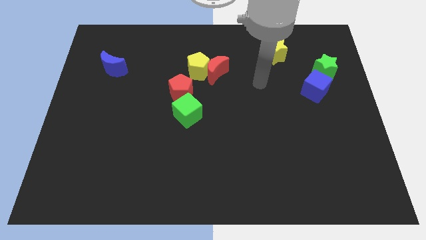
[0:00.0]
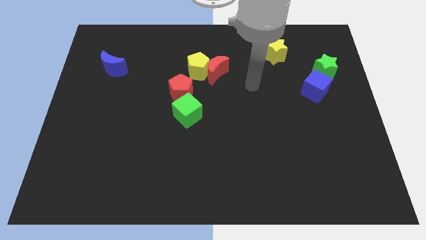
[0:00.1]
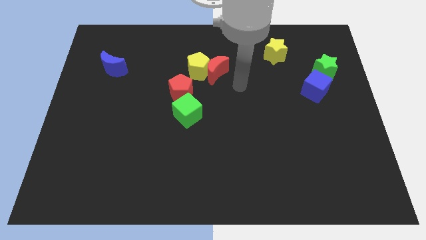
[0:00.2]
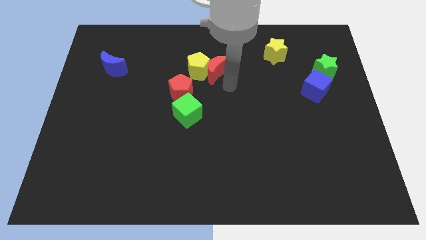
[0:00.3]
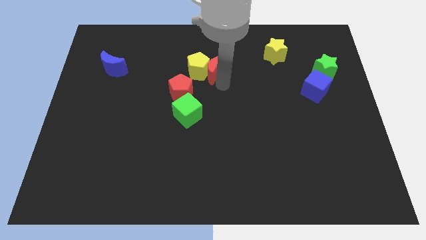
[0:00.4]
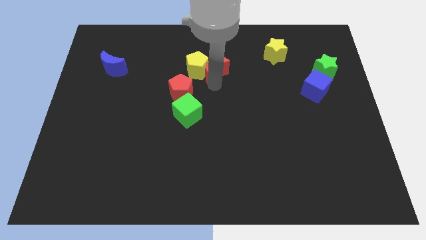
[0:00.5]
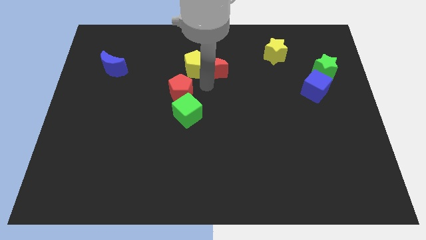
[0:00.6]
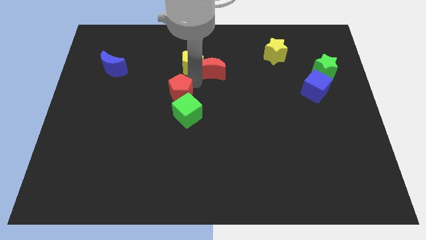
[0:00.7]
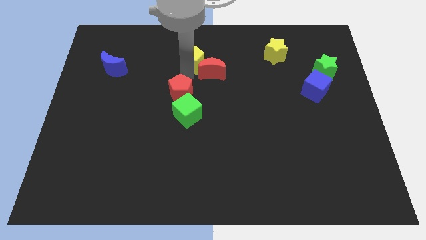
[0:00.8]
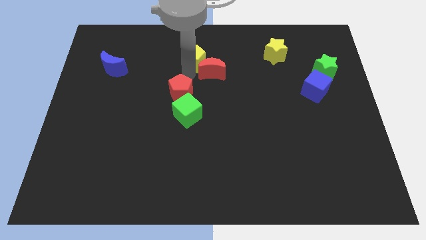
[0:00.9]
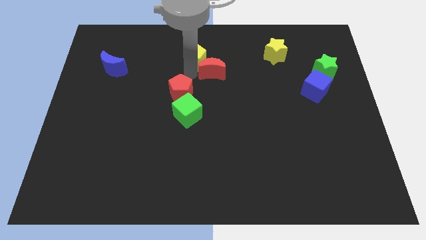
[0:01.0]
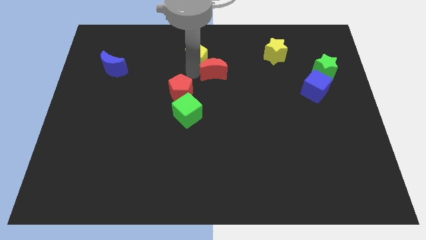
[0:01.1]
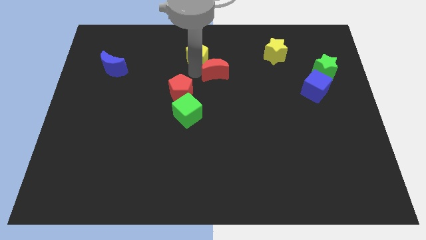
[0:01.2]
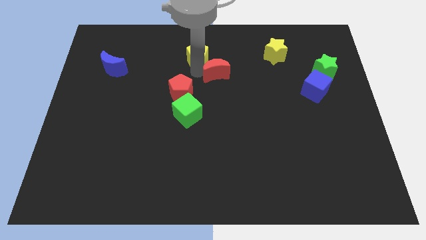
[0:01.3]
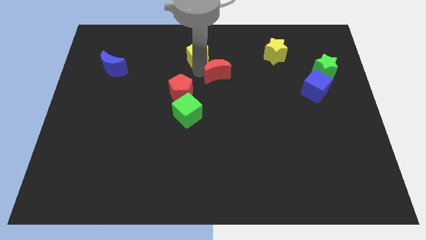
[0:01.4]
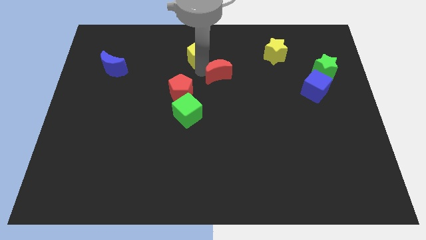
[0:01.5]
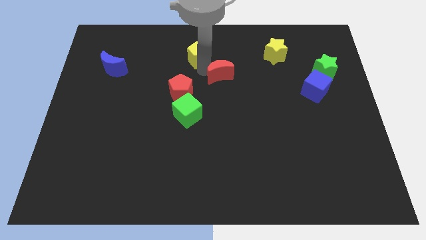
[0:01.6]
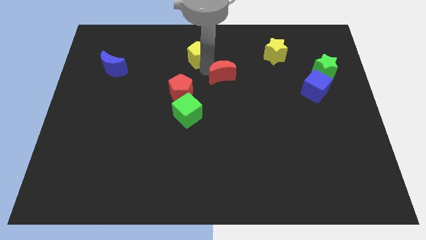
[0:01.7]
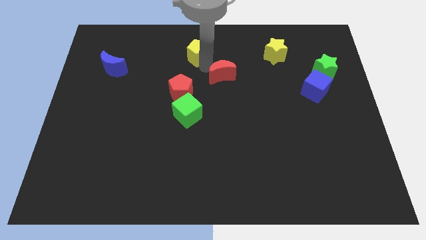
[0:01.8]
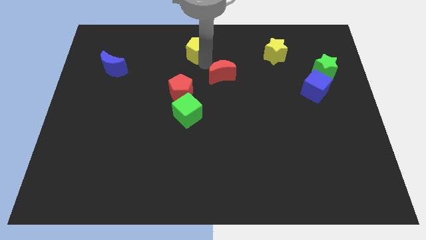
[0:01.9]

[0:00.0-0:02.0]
move the red moon away from the yellow pentagon

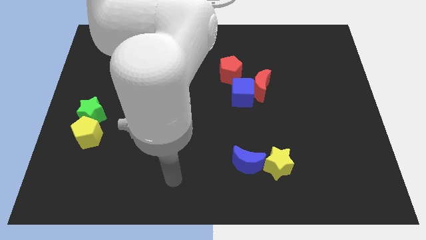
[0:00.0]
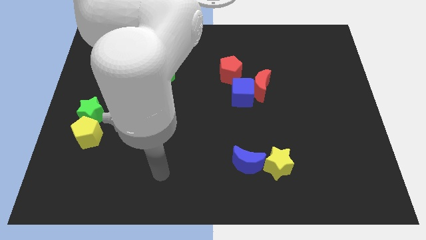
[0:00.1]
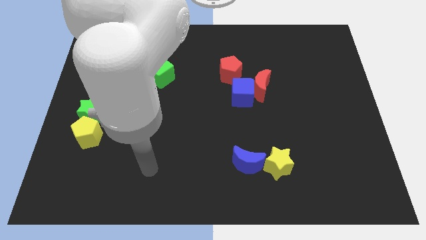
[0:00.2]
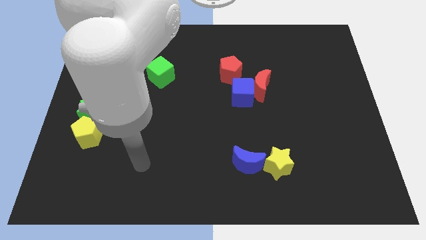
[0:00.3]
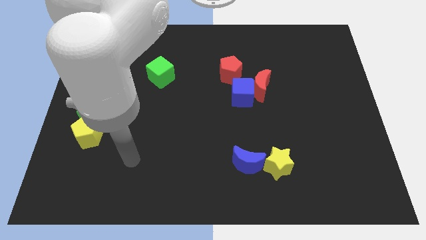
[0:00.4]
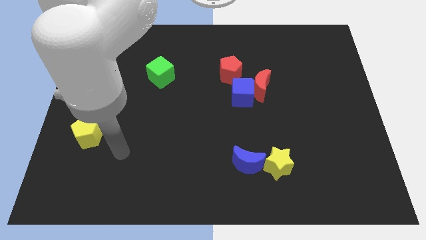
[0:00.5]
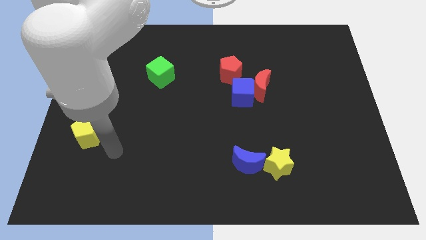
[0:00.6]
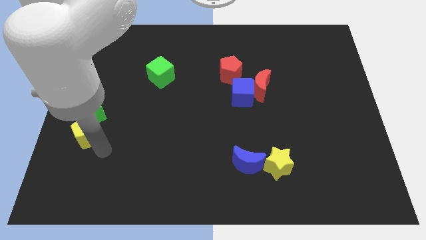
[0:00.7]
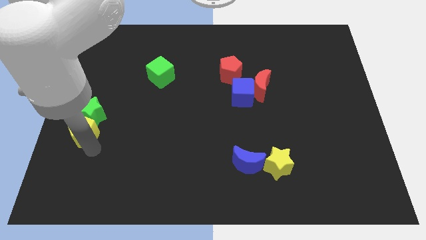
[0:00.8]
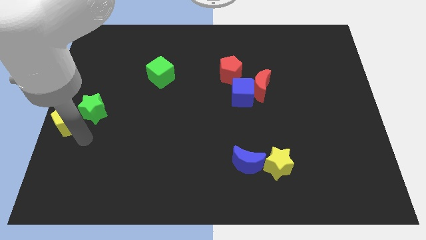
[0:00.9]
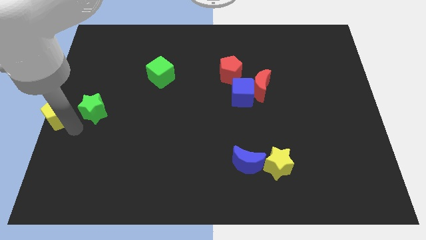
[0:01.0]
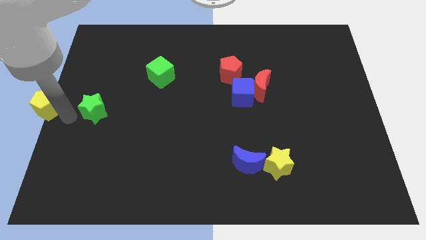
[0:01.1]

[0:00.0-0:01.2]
pull the green star apart from the yellow pentagon

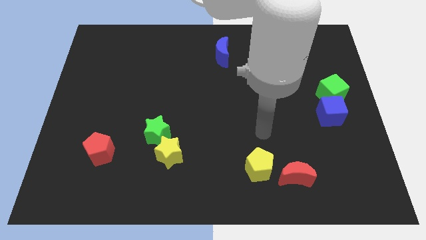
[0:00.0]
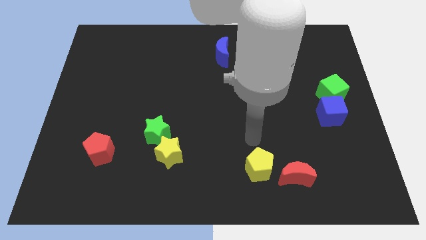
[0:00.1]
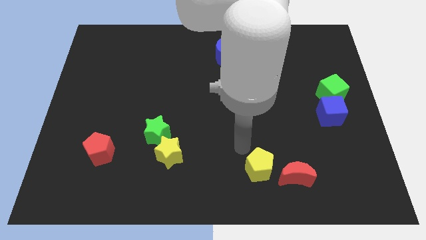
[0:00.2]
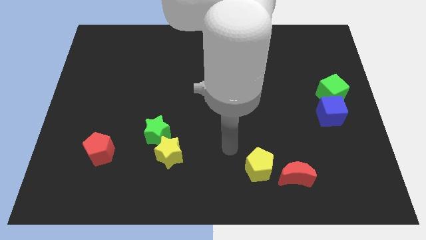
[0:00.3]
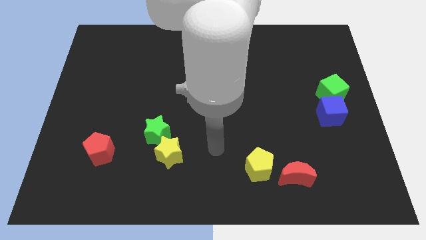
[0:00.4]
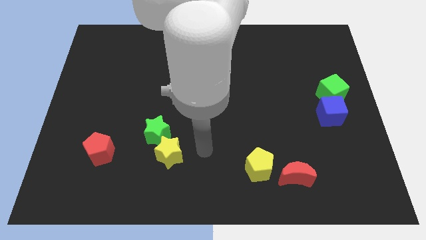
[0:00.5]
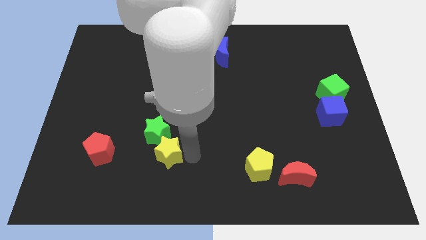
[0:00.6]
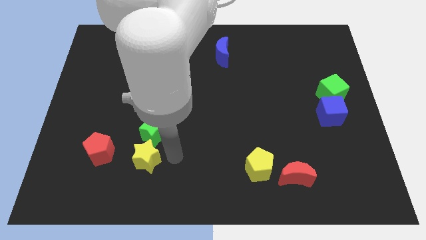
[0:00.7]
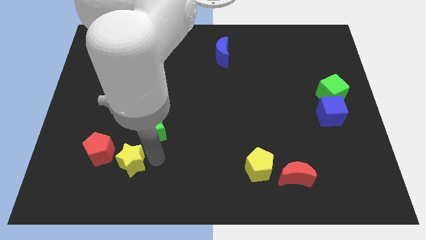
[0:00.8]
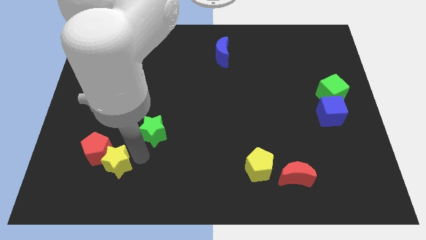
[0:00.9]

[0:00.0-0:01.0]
move the green star away from the yellow star

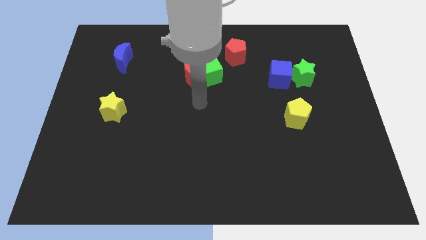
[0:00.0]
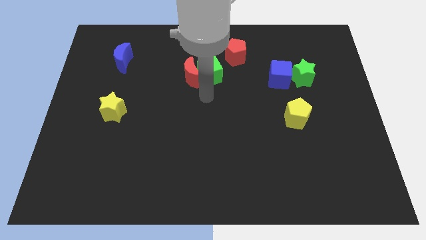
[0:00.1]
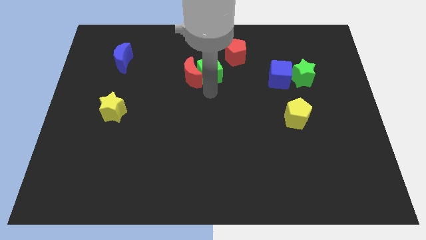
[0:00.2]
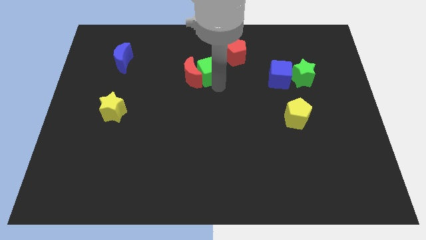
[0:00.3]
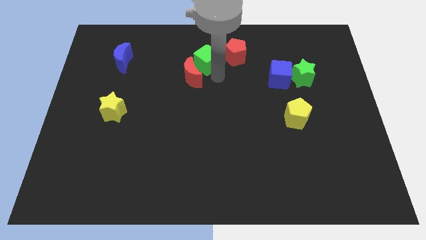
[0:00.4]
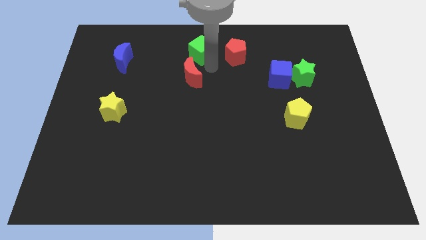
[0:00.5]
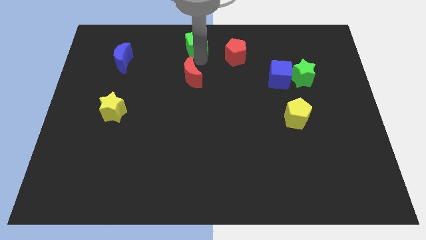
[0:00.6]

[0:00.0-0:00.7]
move the red moon away from the green cube

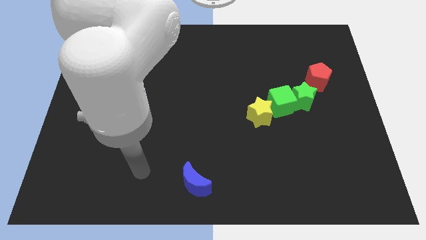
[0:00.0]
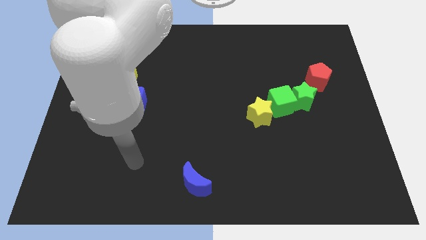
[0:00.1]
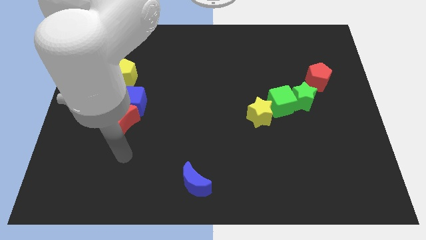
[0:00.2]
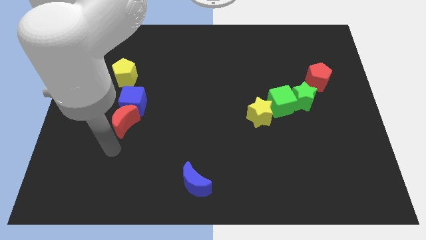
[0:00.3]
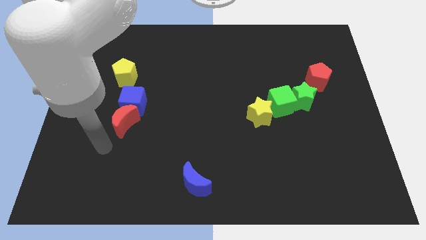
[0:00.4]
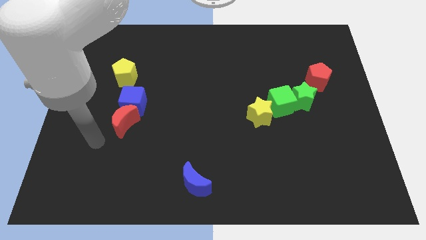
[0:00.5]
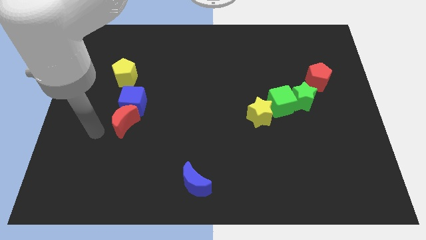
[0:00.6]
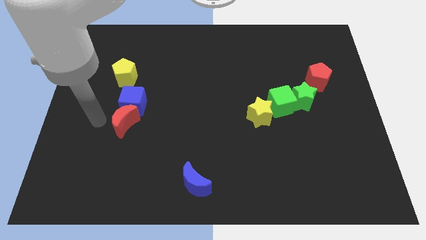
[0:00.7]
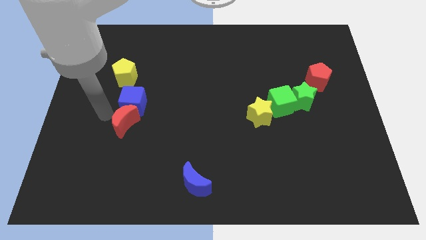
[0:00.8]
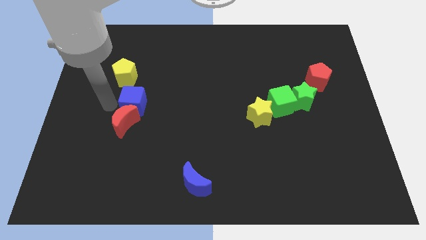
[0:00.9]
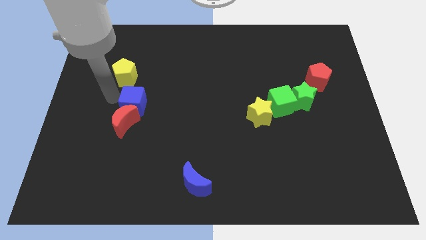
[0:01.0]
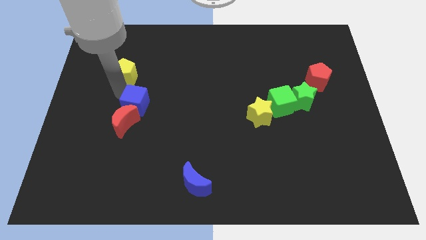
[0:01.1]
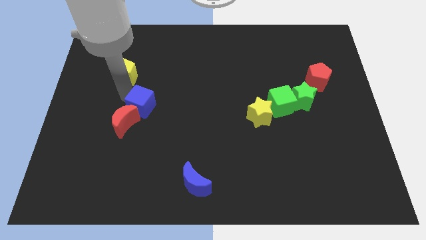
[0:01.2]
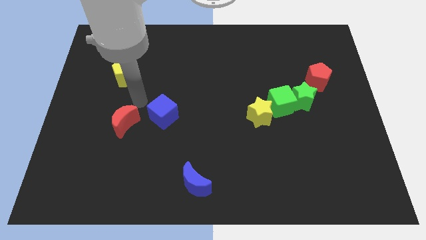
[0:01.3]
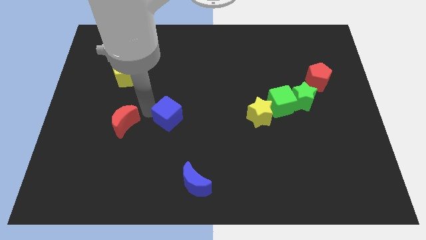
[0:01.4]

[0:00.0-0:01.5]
separate the red moon from the blue cube

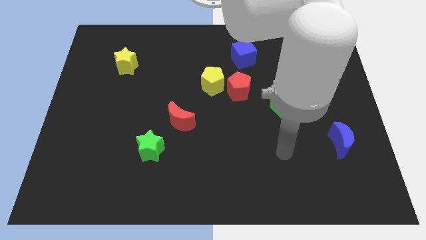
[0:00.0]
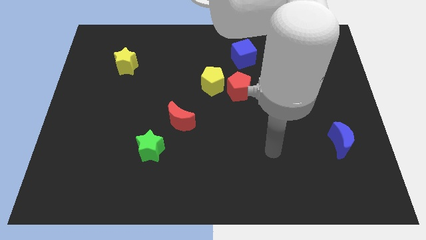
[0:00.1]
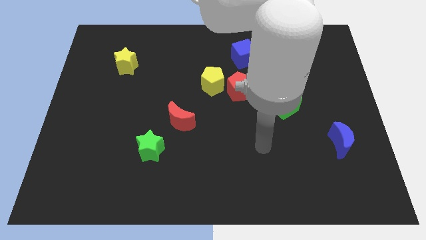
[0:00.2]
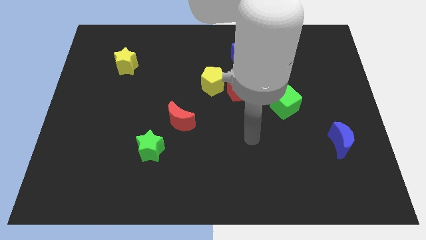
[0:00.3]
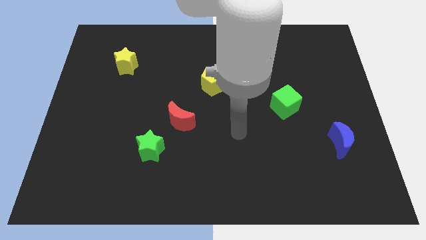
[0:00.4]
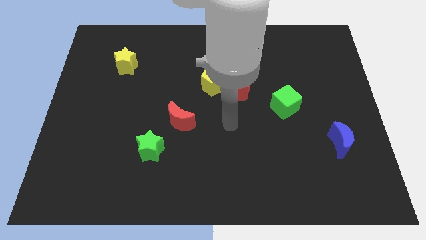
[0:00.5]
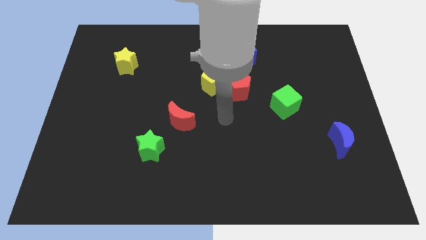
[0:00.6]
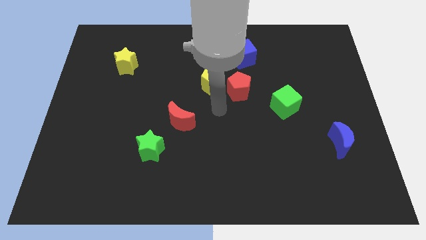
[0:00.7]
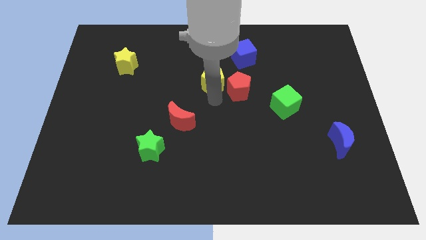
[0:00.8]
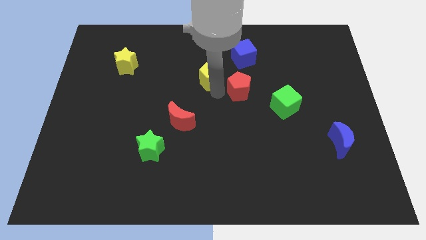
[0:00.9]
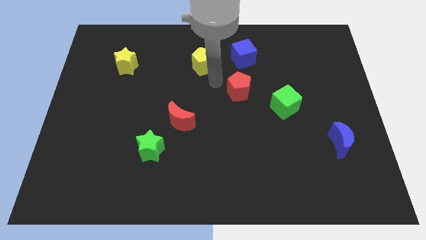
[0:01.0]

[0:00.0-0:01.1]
separate the red pentagon from the yellow pentagon

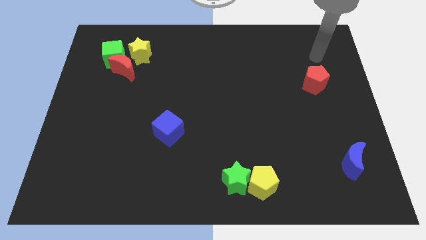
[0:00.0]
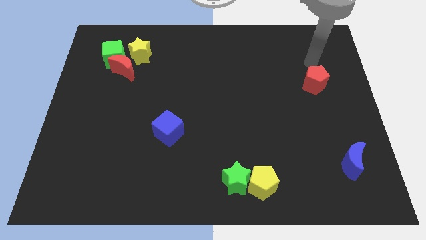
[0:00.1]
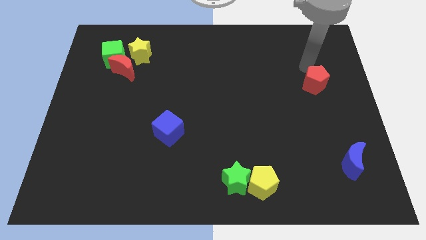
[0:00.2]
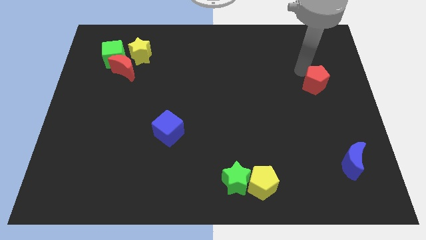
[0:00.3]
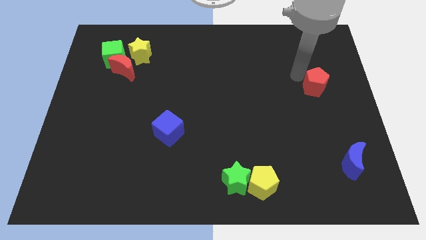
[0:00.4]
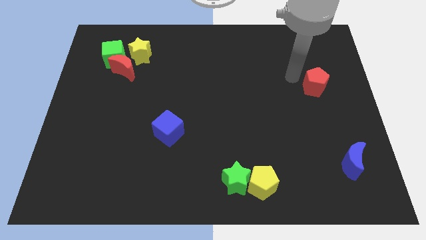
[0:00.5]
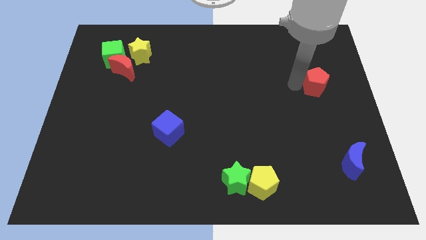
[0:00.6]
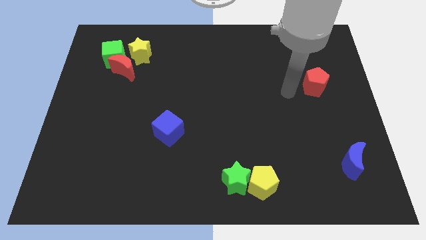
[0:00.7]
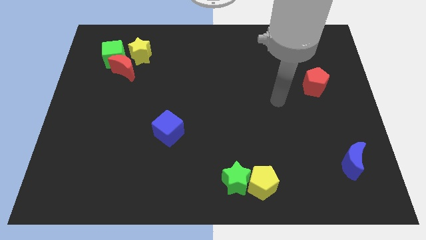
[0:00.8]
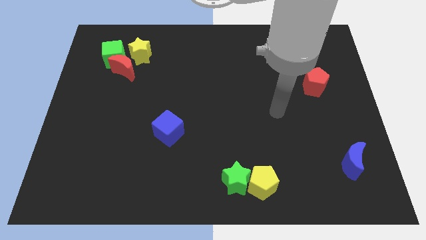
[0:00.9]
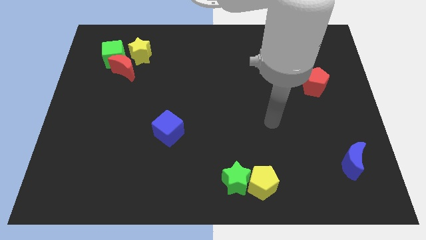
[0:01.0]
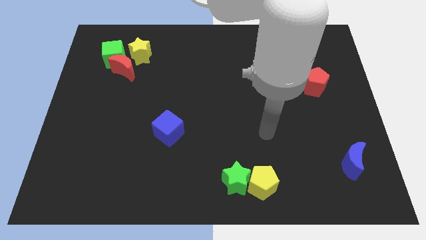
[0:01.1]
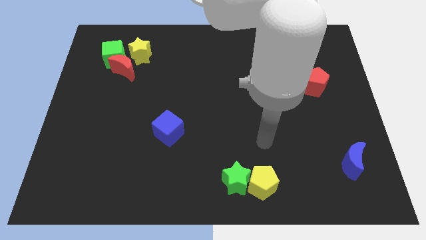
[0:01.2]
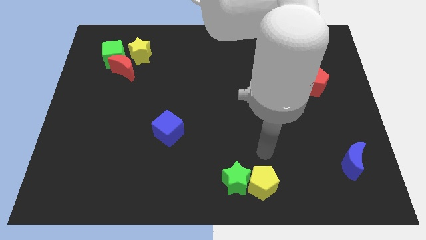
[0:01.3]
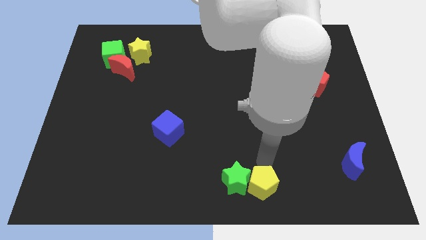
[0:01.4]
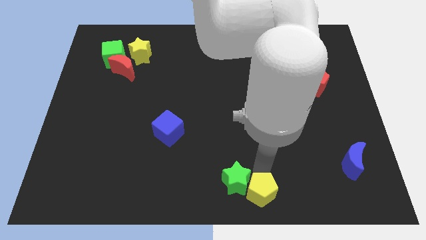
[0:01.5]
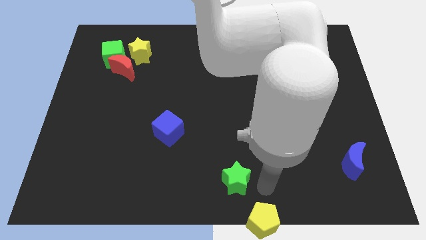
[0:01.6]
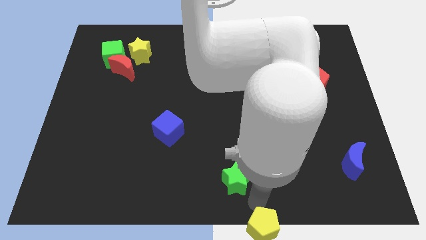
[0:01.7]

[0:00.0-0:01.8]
move the green star away from the yellow pentagon
